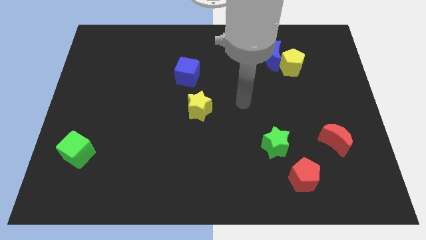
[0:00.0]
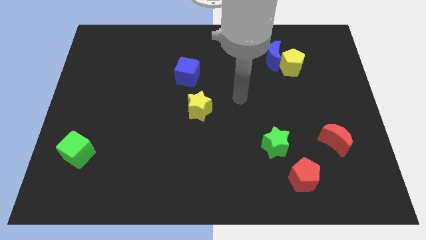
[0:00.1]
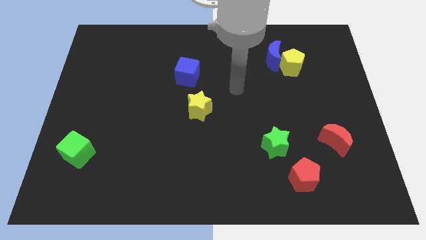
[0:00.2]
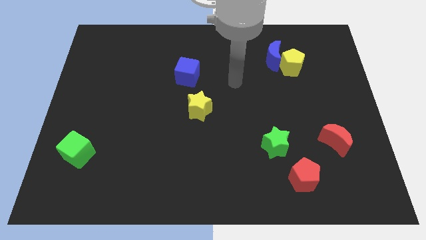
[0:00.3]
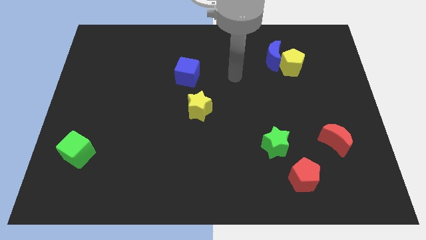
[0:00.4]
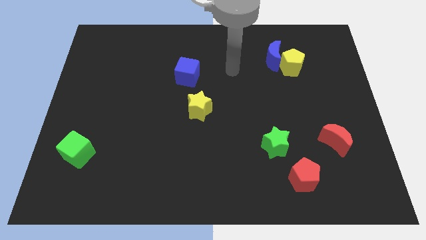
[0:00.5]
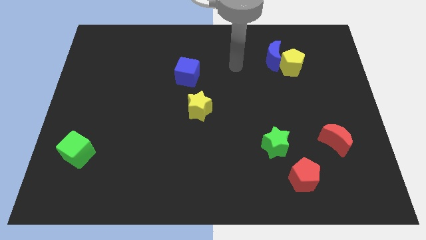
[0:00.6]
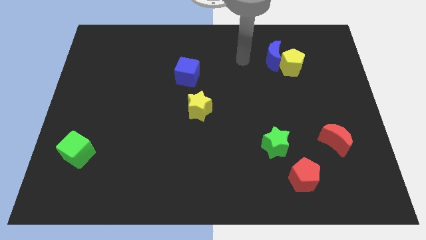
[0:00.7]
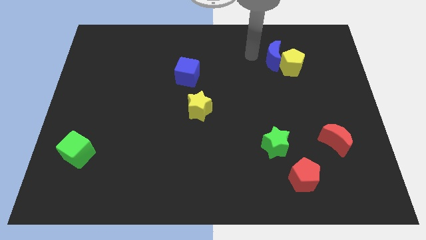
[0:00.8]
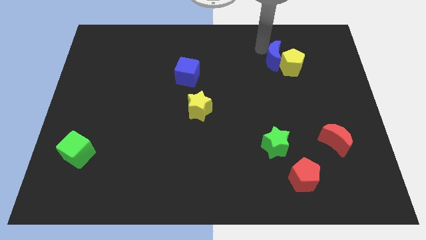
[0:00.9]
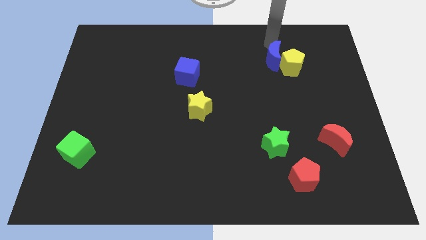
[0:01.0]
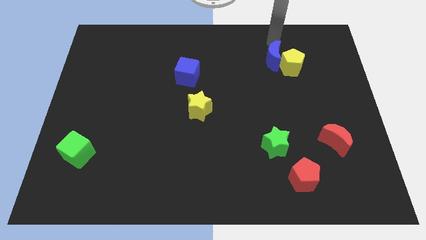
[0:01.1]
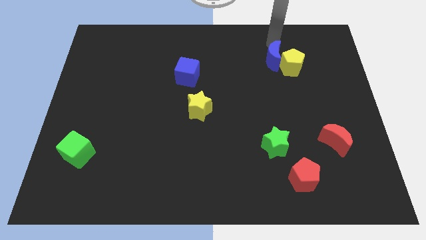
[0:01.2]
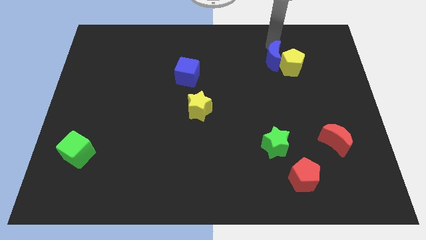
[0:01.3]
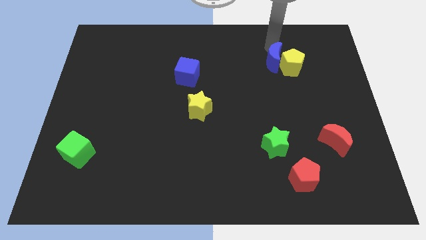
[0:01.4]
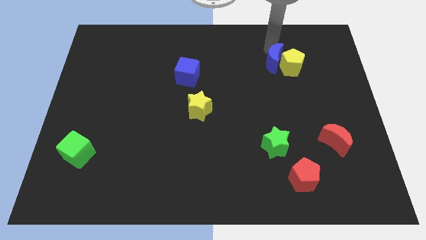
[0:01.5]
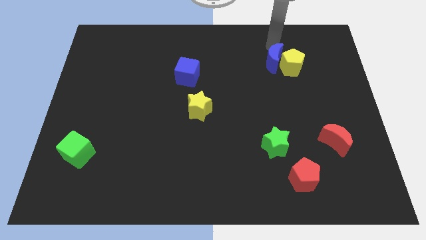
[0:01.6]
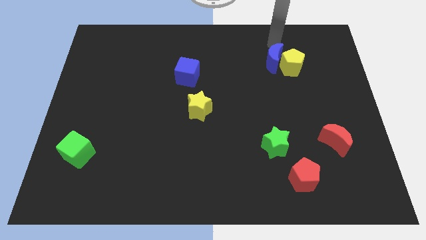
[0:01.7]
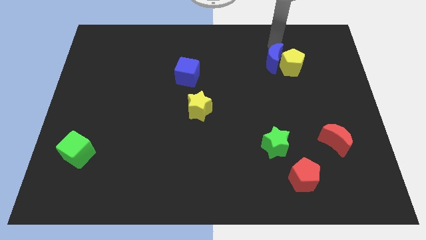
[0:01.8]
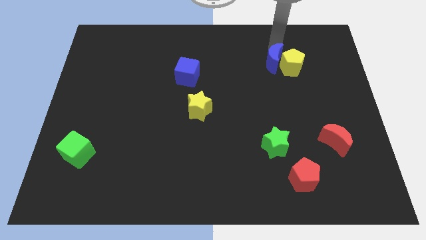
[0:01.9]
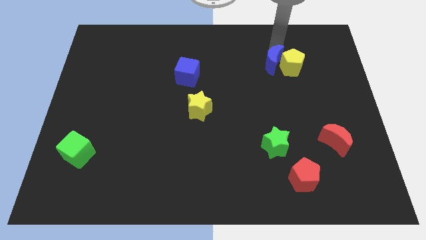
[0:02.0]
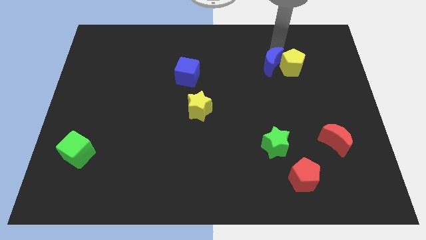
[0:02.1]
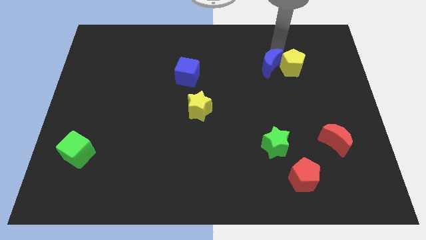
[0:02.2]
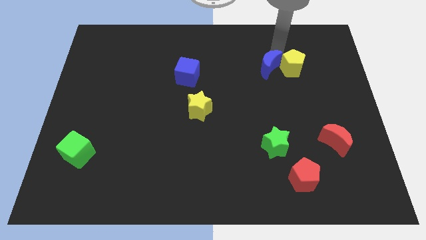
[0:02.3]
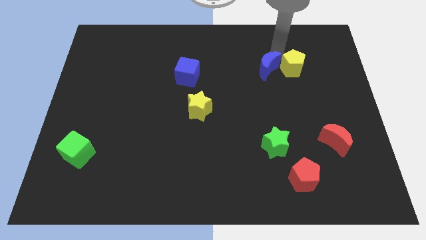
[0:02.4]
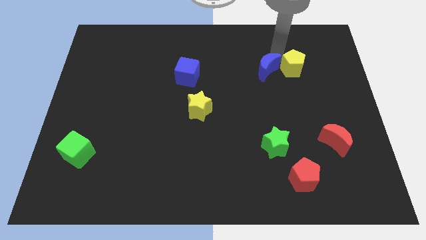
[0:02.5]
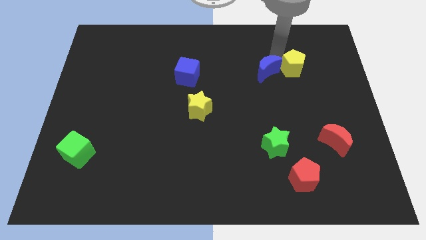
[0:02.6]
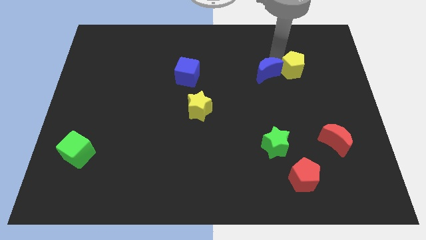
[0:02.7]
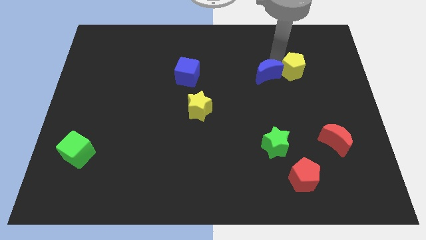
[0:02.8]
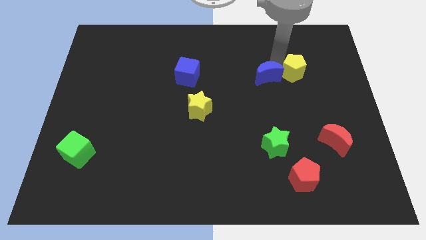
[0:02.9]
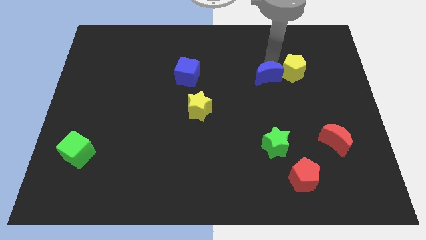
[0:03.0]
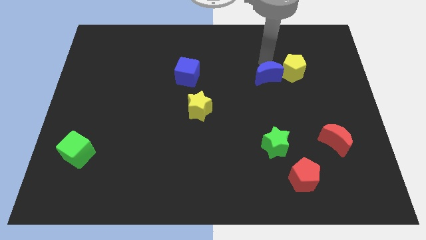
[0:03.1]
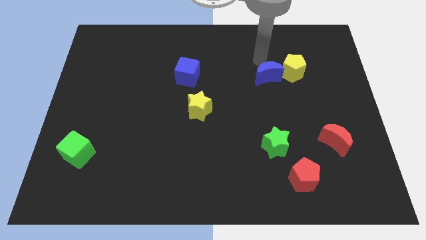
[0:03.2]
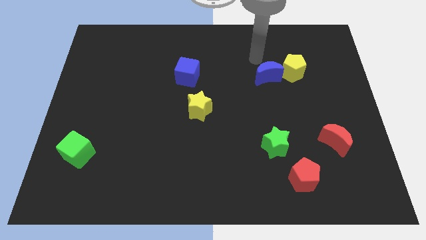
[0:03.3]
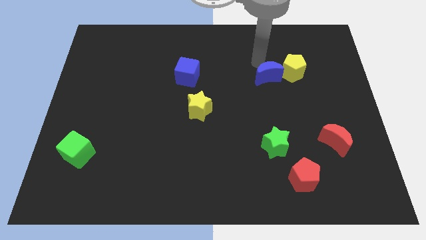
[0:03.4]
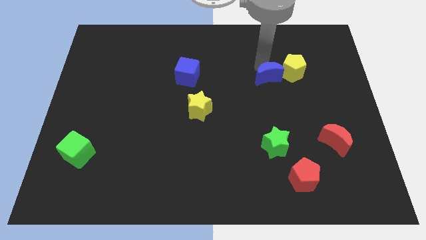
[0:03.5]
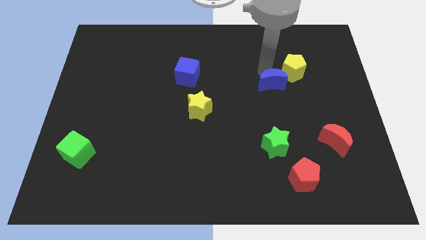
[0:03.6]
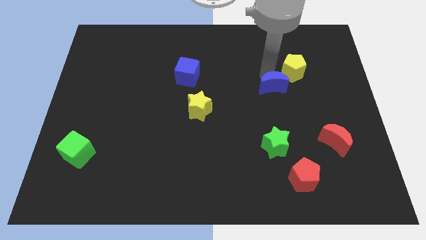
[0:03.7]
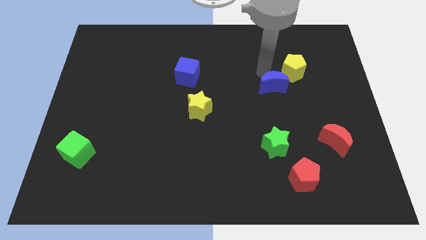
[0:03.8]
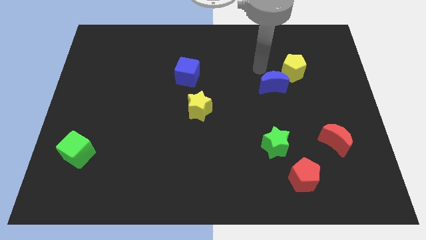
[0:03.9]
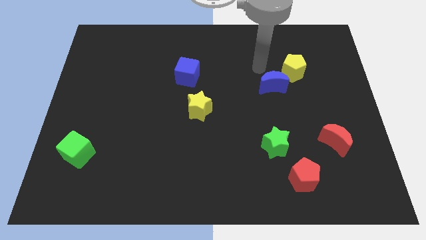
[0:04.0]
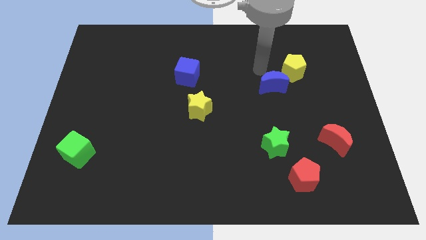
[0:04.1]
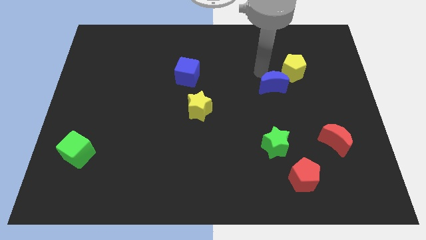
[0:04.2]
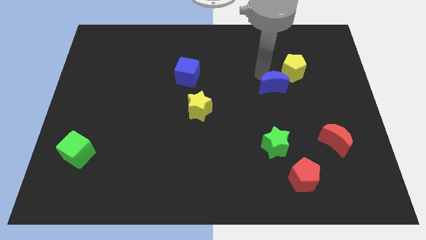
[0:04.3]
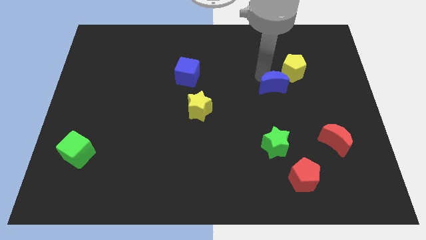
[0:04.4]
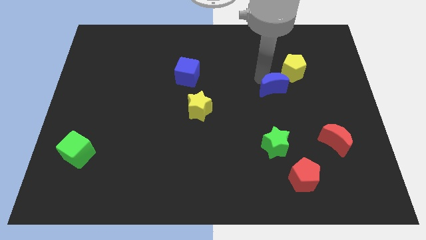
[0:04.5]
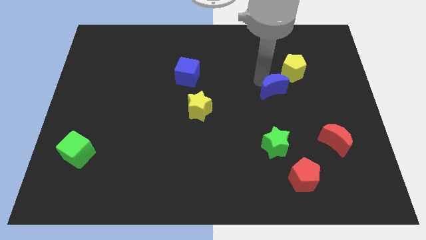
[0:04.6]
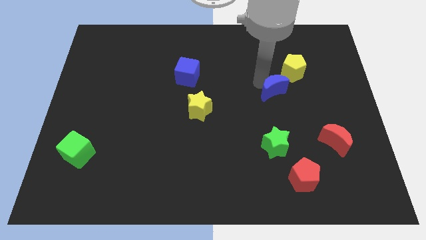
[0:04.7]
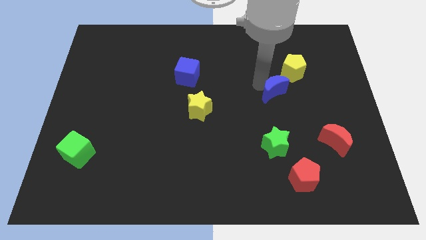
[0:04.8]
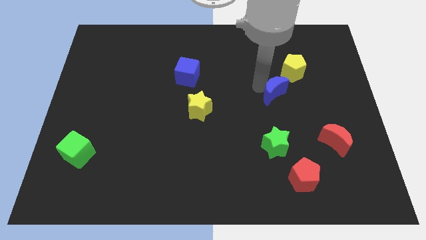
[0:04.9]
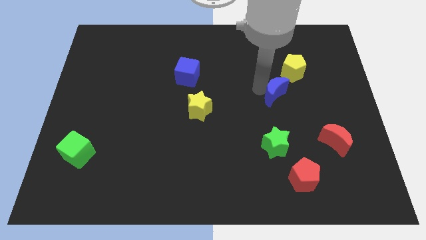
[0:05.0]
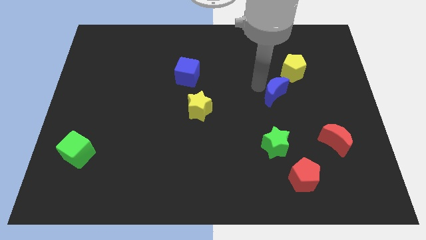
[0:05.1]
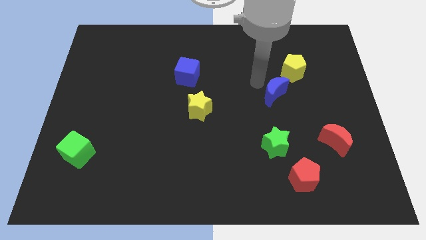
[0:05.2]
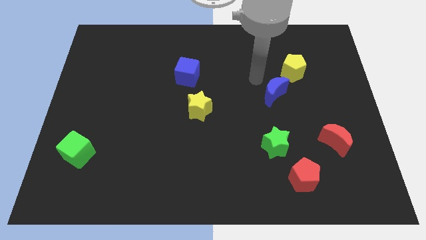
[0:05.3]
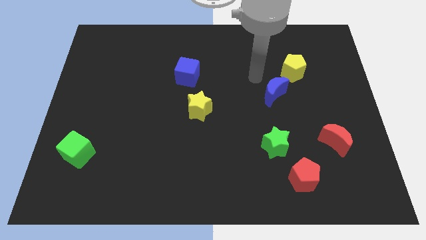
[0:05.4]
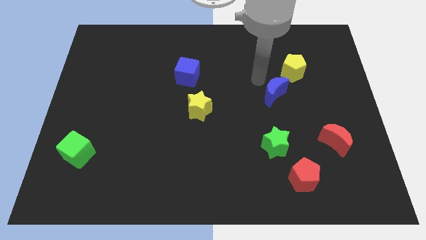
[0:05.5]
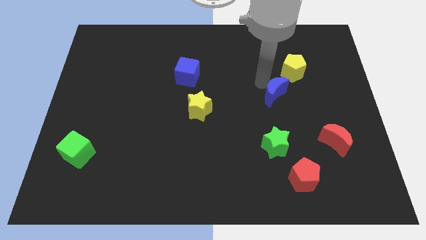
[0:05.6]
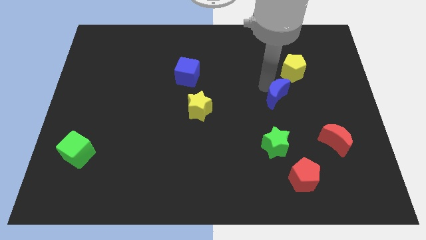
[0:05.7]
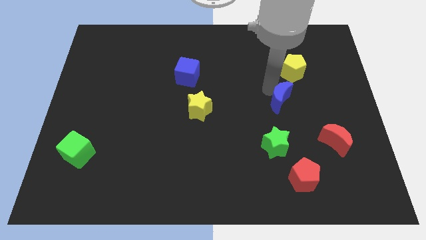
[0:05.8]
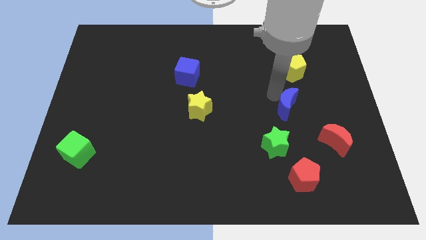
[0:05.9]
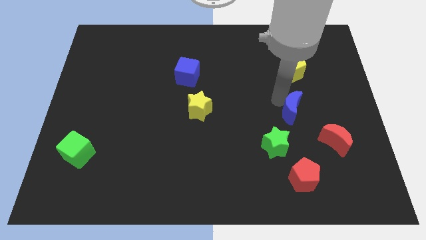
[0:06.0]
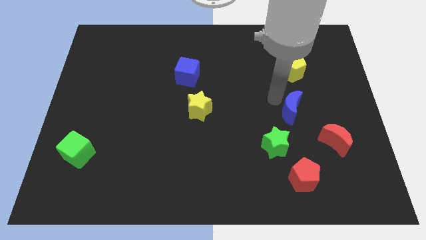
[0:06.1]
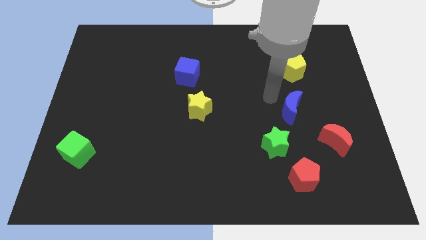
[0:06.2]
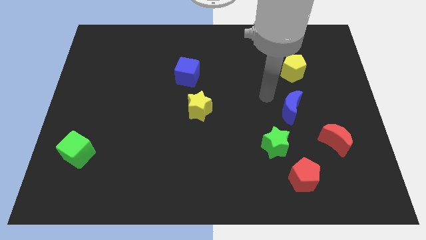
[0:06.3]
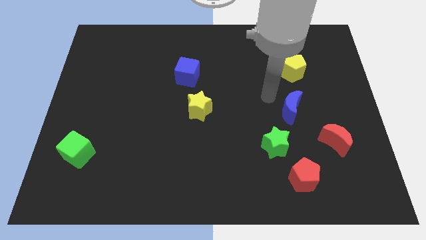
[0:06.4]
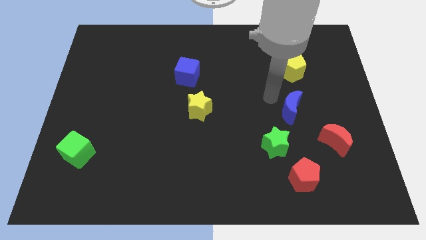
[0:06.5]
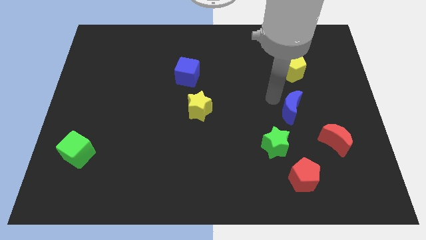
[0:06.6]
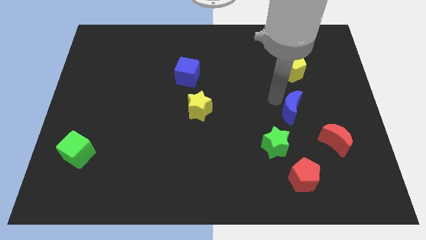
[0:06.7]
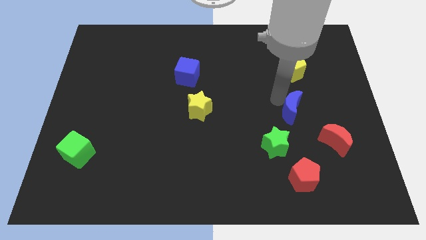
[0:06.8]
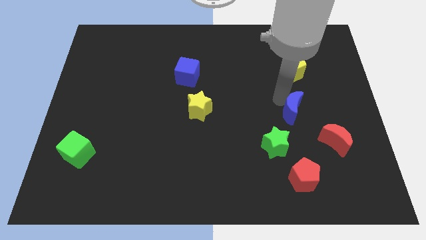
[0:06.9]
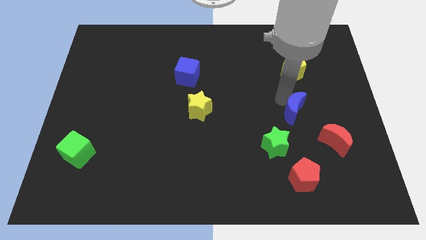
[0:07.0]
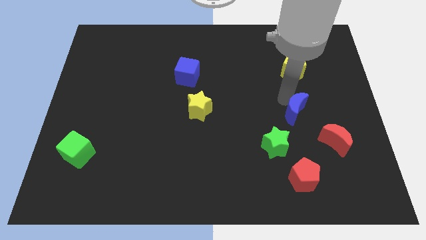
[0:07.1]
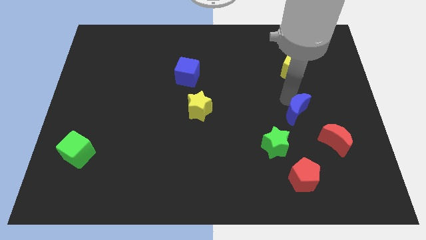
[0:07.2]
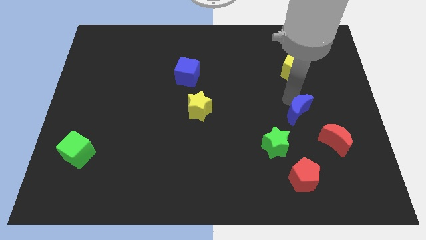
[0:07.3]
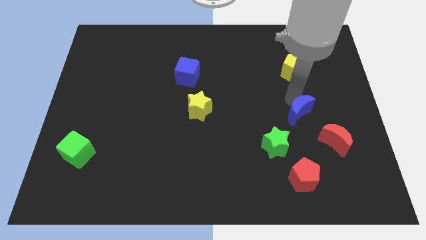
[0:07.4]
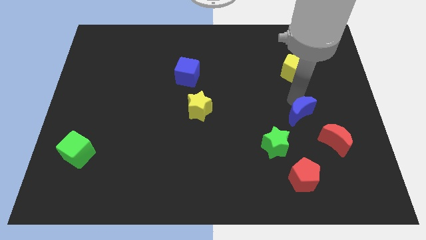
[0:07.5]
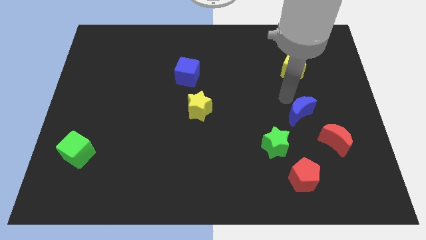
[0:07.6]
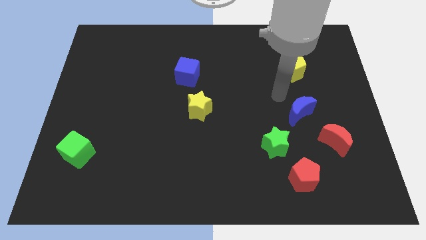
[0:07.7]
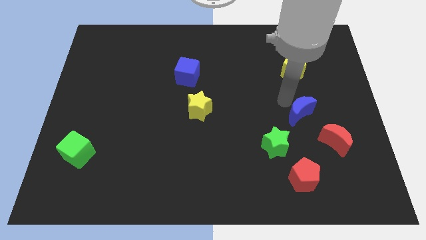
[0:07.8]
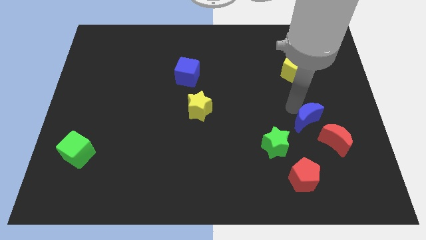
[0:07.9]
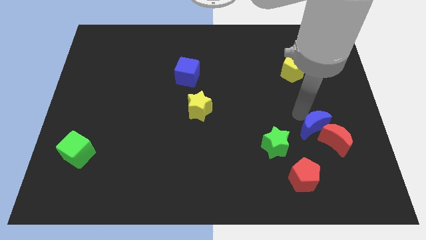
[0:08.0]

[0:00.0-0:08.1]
push the blue moon close to the red moon
